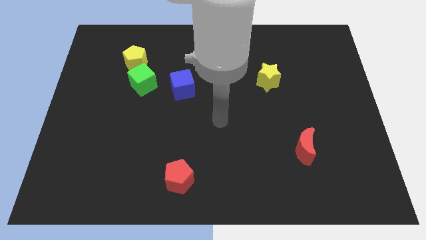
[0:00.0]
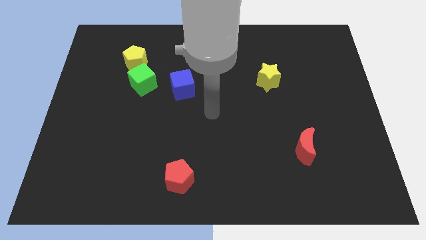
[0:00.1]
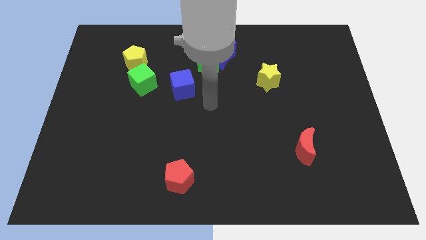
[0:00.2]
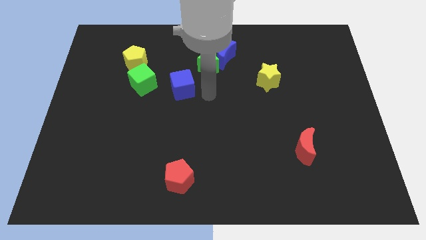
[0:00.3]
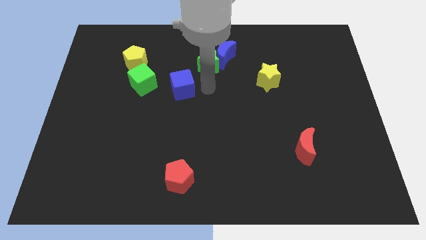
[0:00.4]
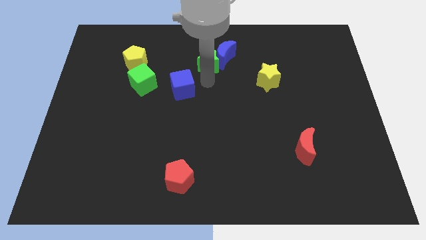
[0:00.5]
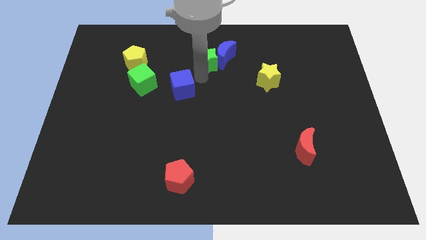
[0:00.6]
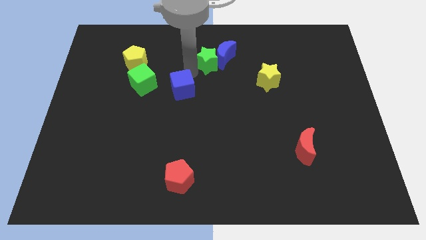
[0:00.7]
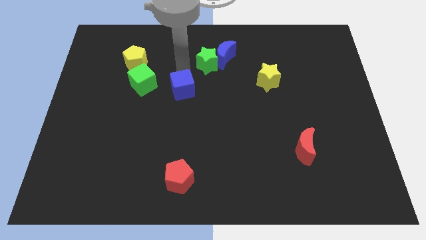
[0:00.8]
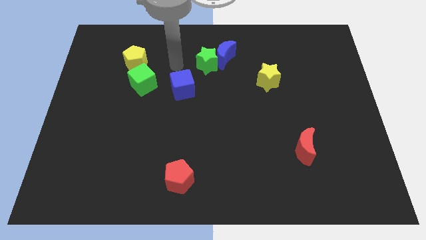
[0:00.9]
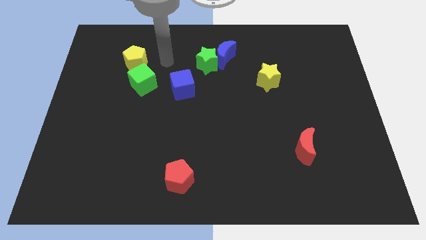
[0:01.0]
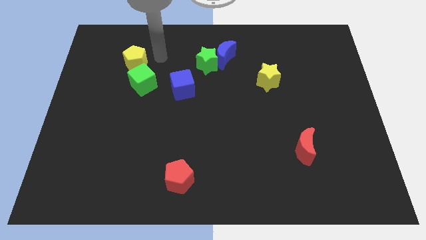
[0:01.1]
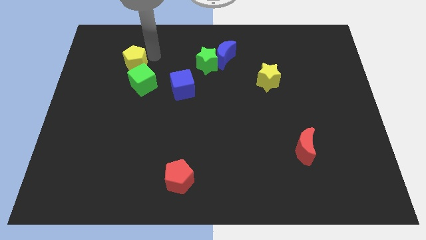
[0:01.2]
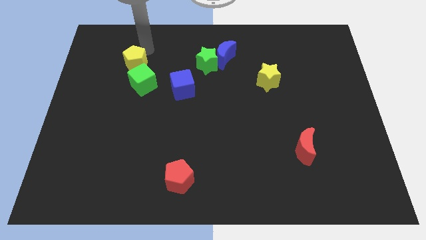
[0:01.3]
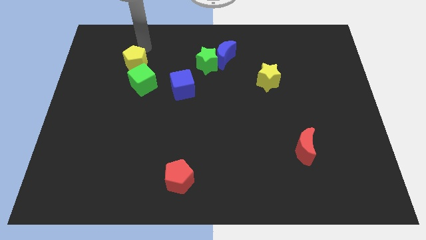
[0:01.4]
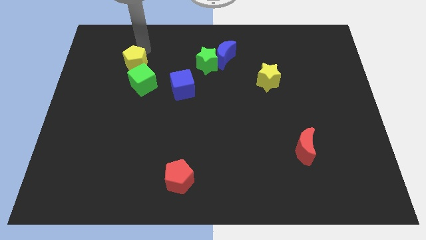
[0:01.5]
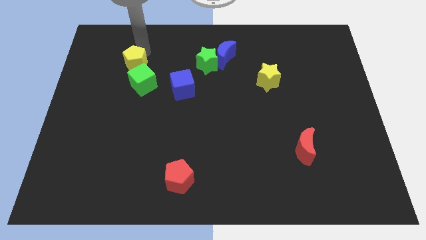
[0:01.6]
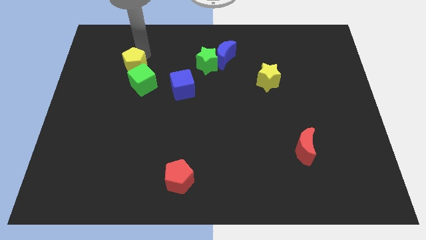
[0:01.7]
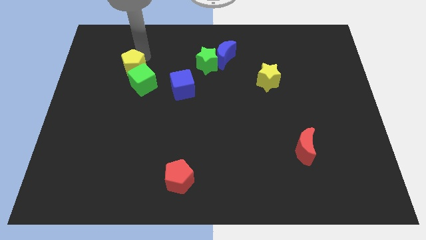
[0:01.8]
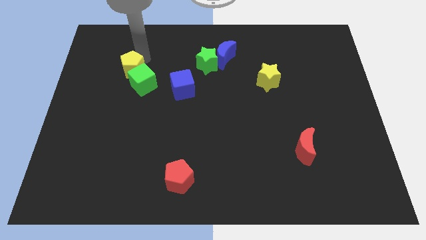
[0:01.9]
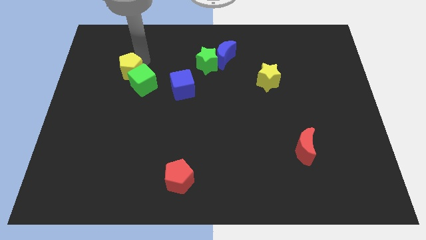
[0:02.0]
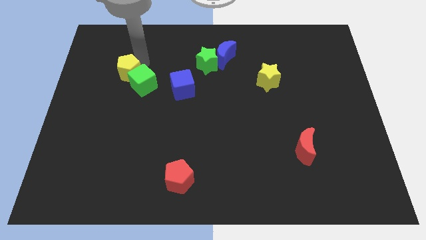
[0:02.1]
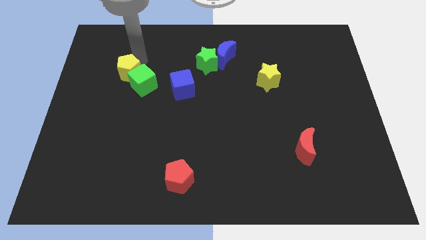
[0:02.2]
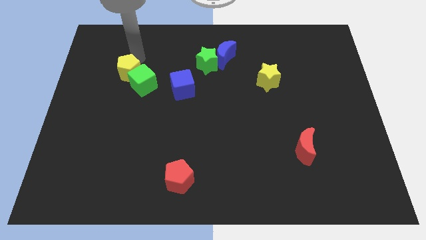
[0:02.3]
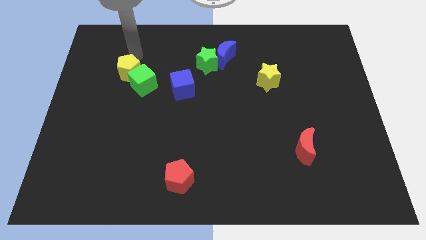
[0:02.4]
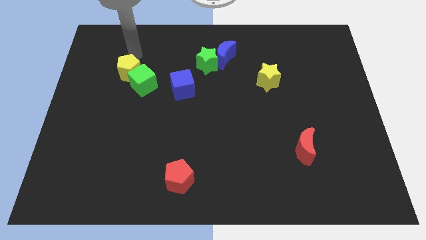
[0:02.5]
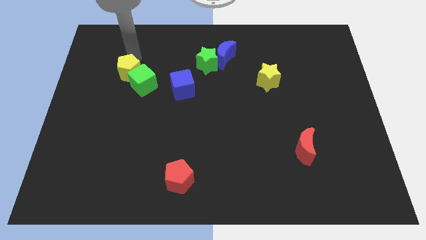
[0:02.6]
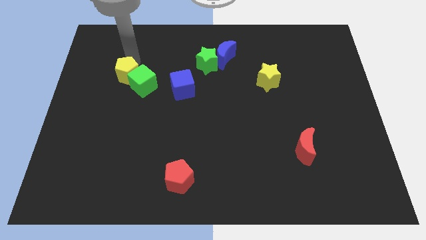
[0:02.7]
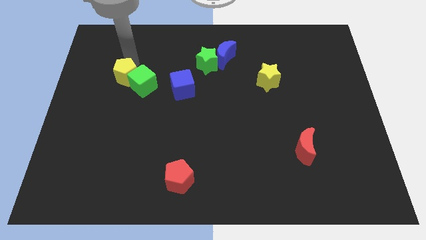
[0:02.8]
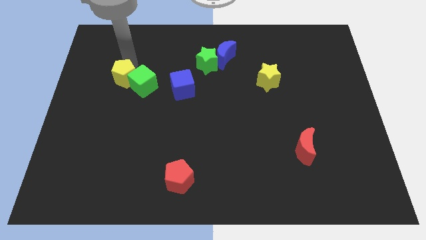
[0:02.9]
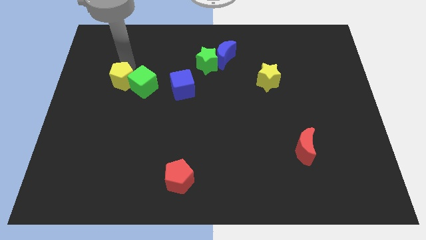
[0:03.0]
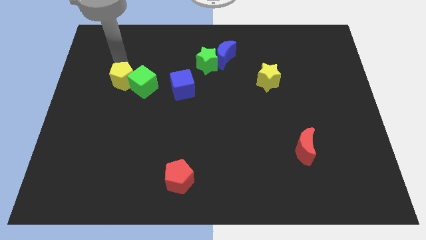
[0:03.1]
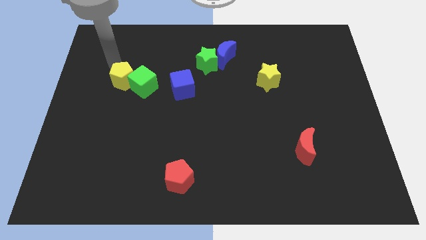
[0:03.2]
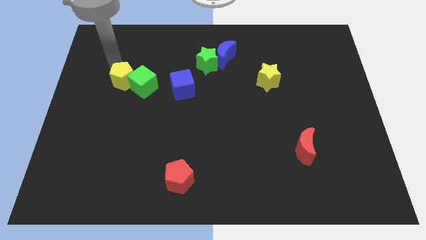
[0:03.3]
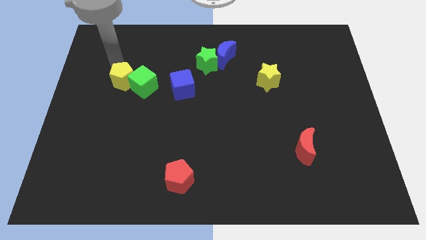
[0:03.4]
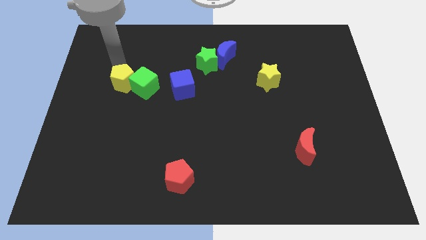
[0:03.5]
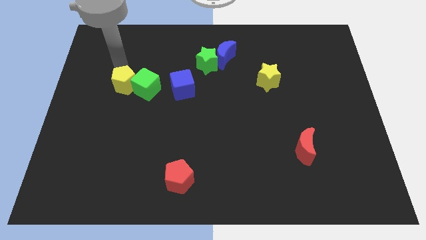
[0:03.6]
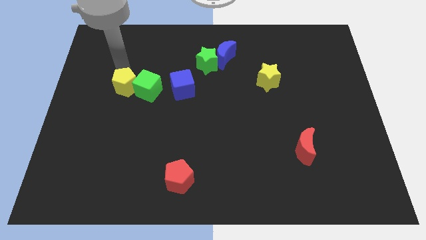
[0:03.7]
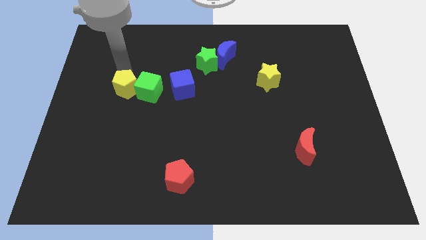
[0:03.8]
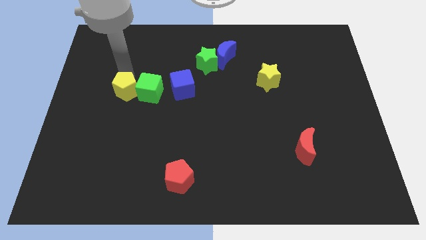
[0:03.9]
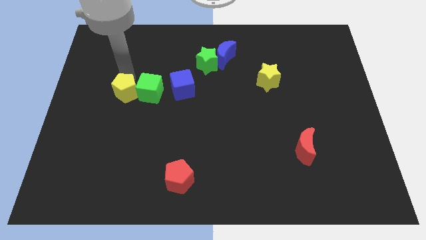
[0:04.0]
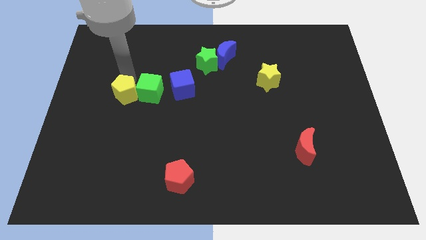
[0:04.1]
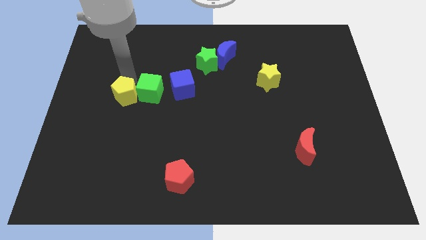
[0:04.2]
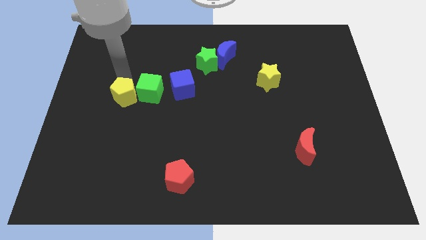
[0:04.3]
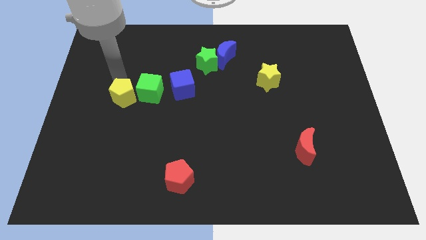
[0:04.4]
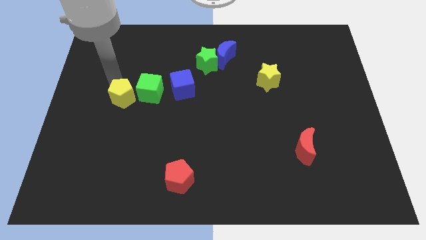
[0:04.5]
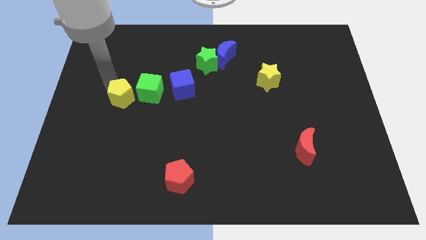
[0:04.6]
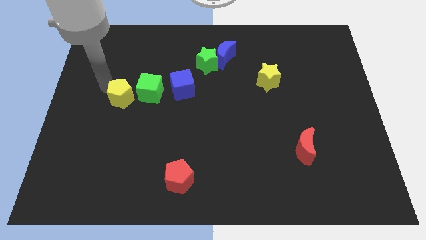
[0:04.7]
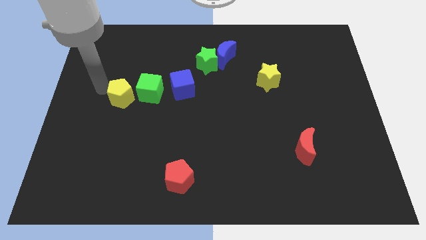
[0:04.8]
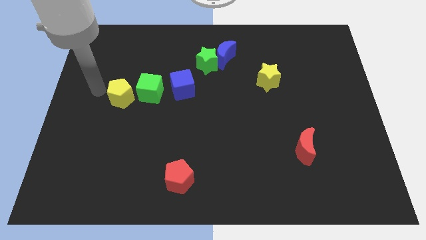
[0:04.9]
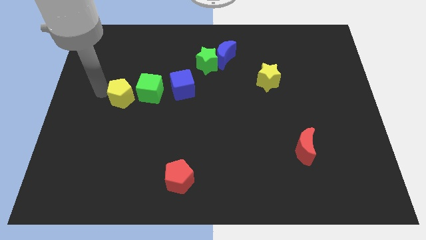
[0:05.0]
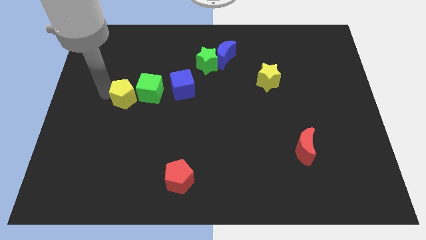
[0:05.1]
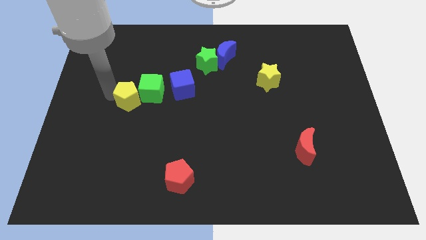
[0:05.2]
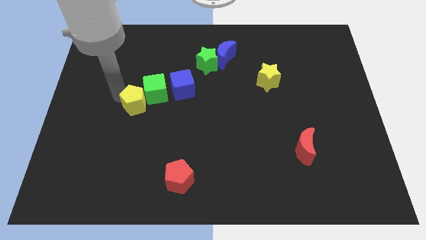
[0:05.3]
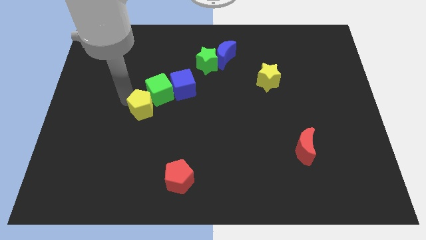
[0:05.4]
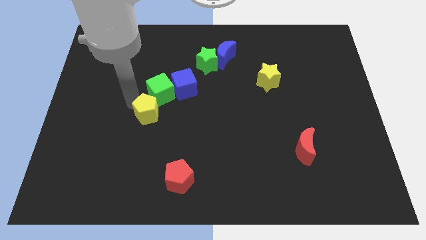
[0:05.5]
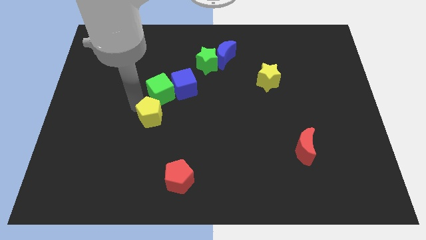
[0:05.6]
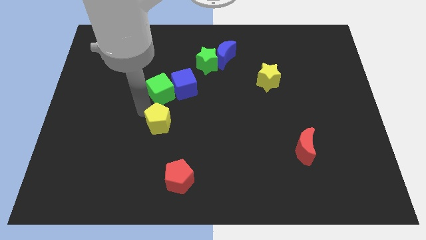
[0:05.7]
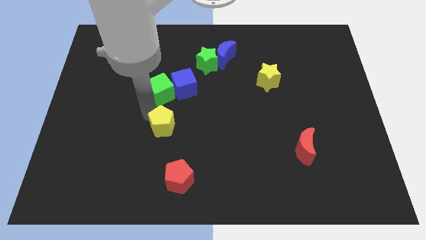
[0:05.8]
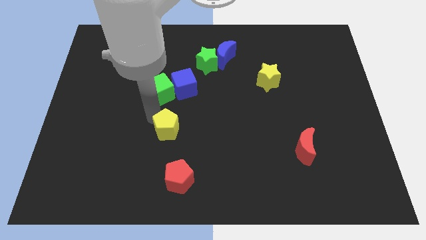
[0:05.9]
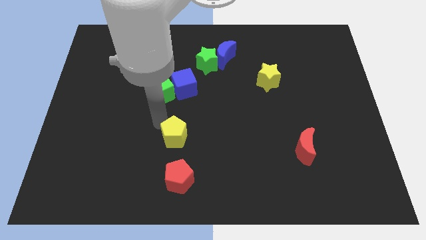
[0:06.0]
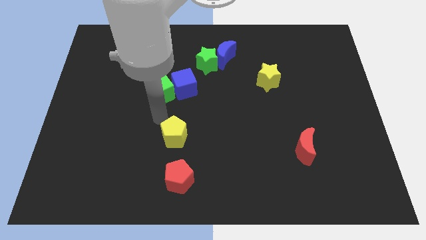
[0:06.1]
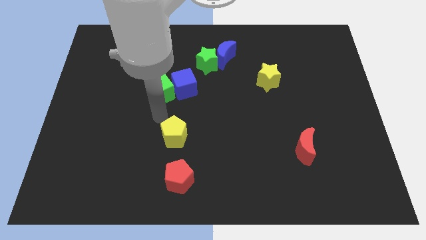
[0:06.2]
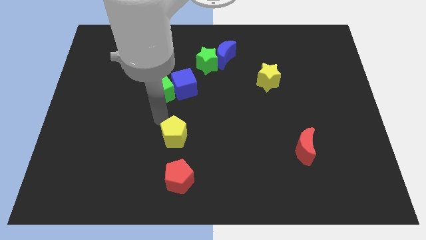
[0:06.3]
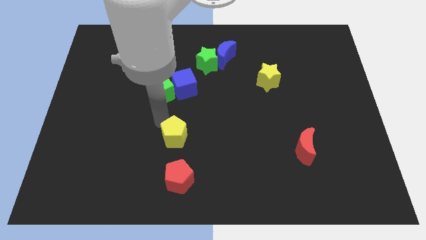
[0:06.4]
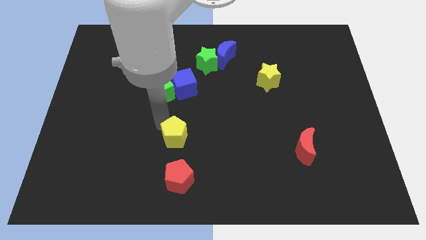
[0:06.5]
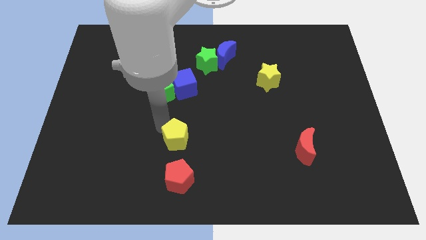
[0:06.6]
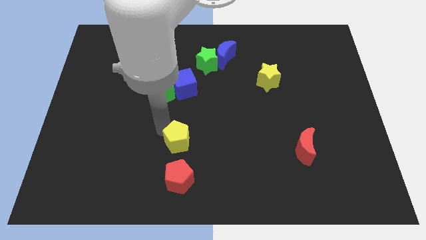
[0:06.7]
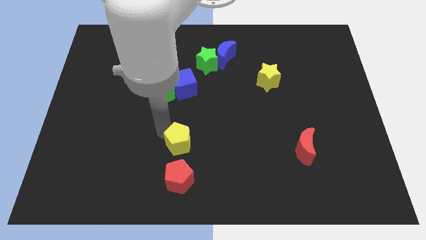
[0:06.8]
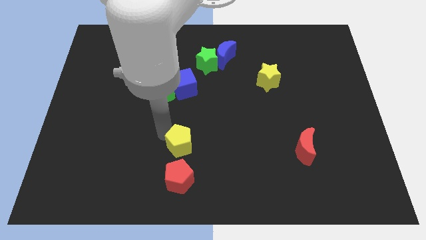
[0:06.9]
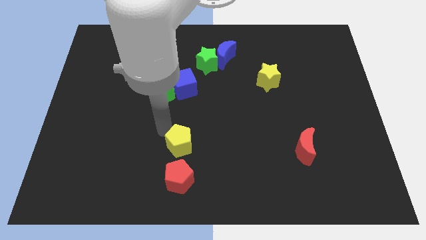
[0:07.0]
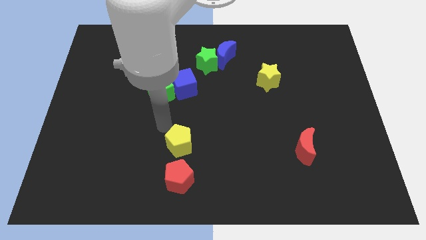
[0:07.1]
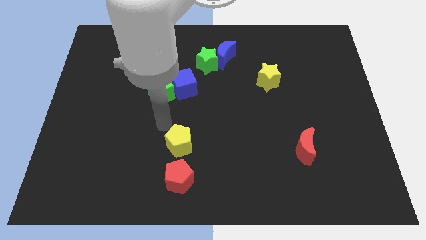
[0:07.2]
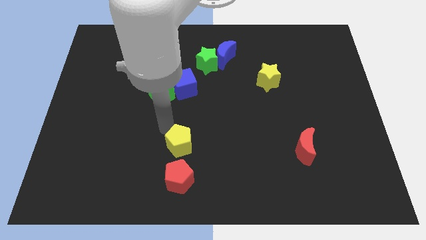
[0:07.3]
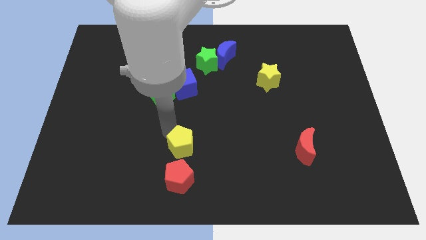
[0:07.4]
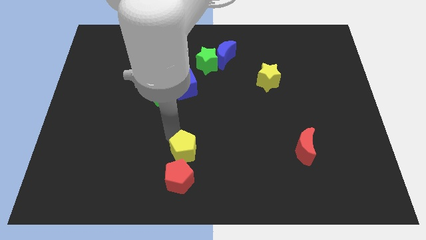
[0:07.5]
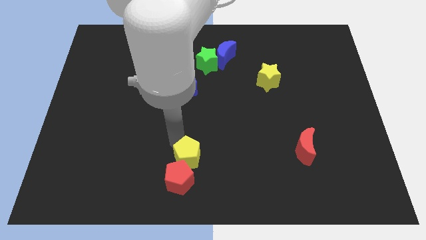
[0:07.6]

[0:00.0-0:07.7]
put the yellow pentagon to the bottom
